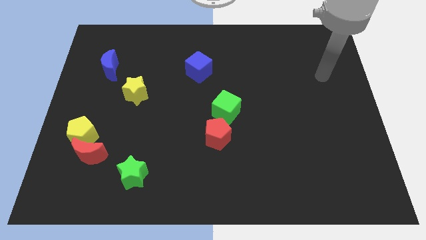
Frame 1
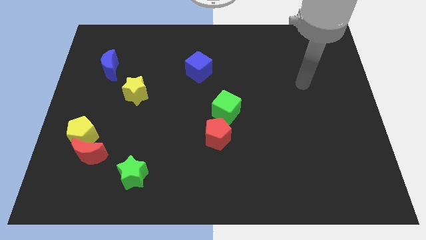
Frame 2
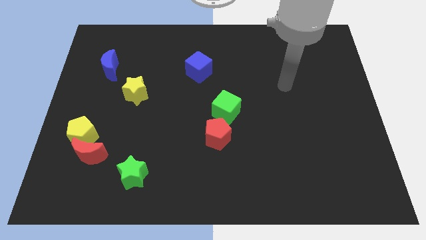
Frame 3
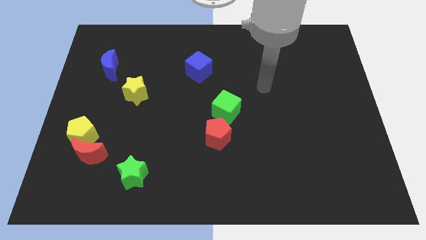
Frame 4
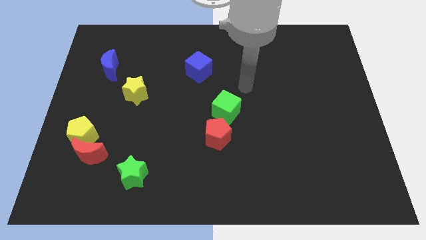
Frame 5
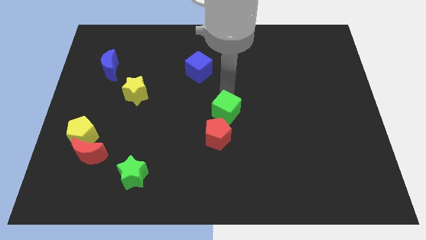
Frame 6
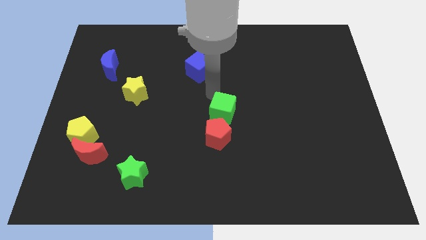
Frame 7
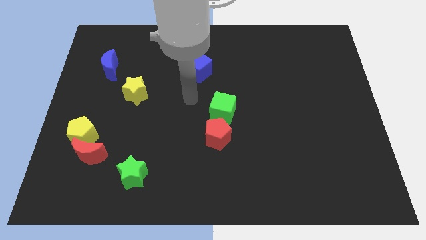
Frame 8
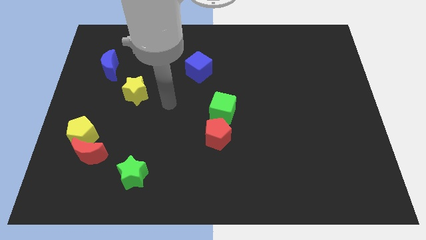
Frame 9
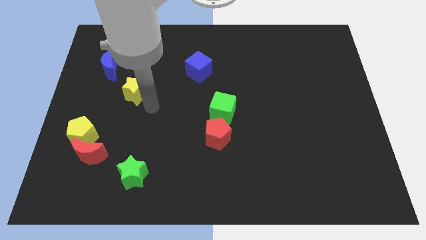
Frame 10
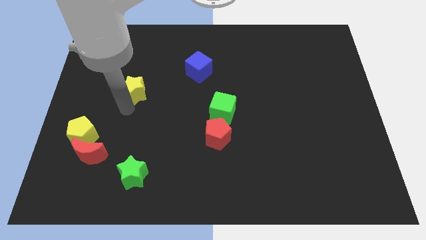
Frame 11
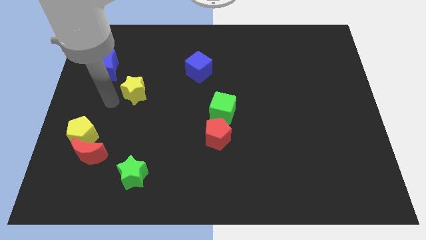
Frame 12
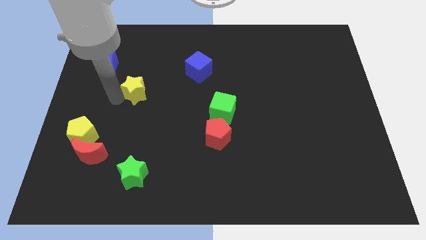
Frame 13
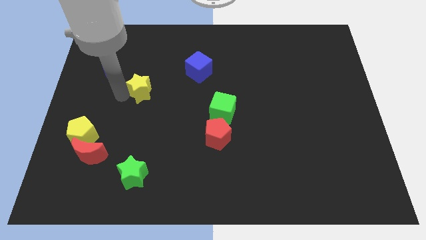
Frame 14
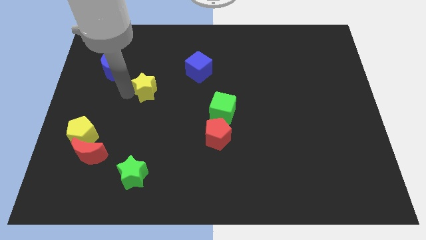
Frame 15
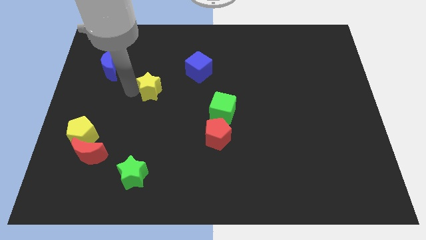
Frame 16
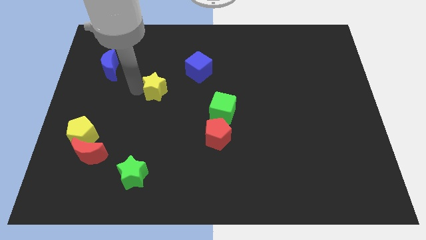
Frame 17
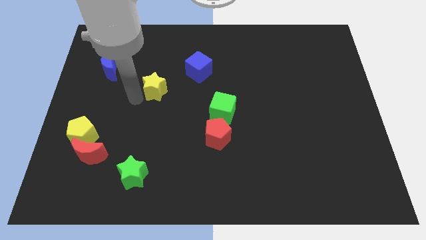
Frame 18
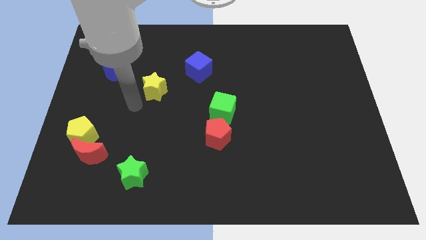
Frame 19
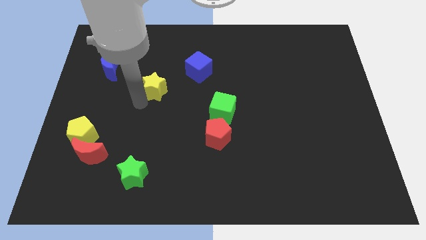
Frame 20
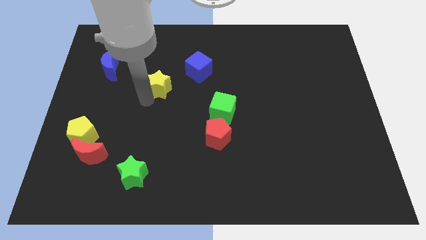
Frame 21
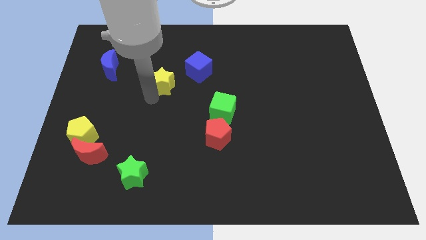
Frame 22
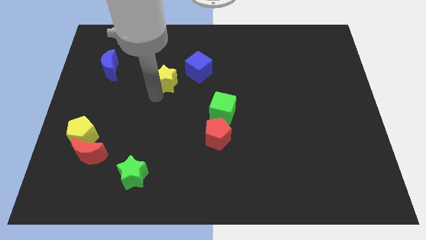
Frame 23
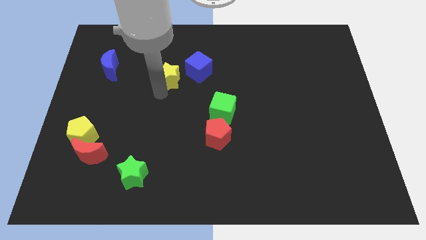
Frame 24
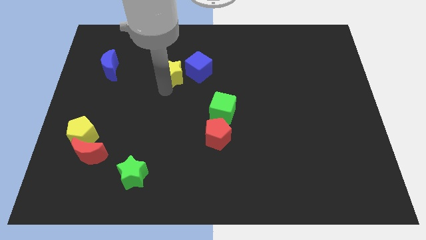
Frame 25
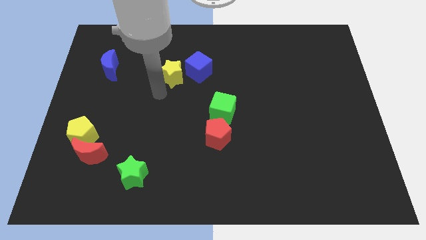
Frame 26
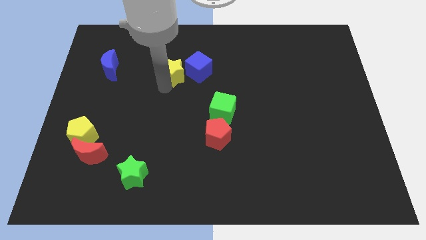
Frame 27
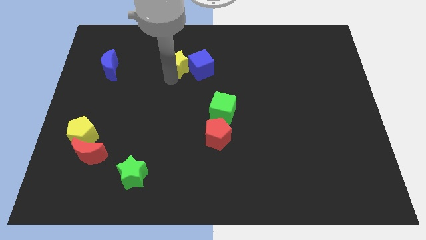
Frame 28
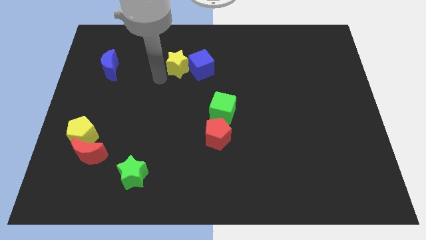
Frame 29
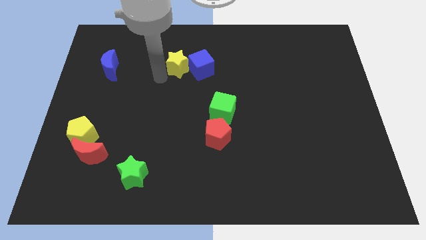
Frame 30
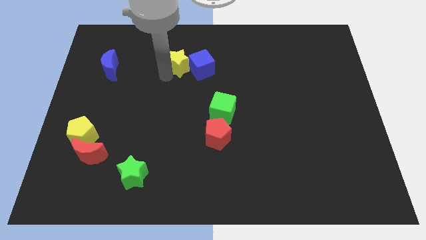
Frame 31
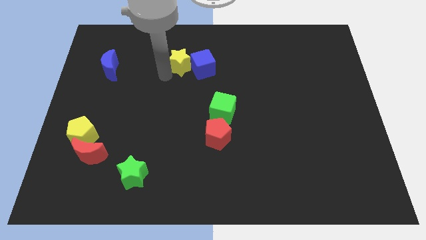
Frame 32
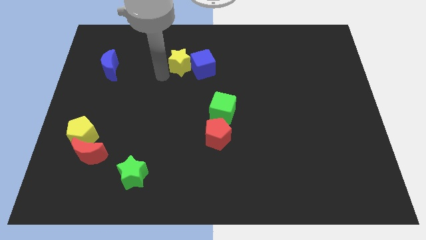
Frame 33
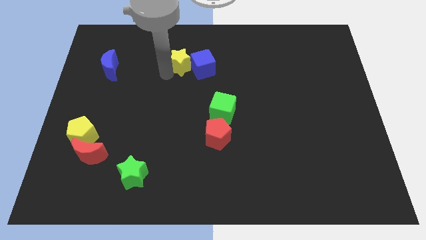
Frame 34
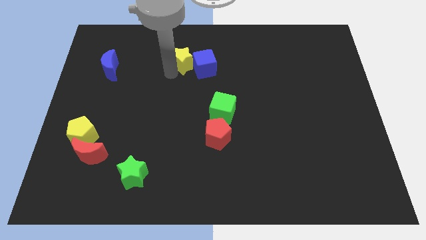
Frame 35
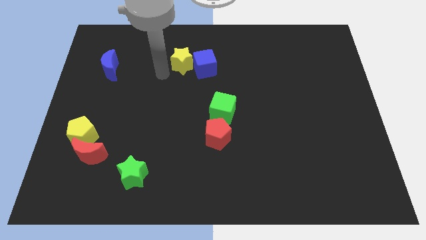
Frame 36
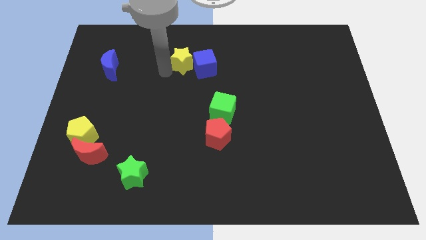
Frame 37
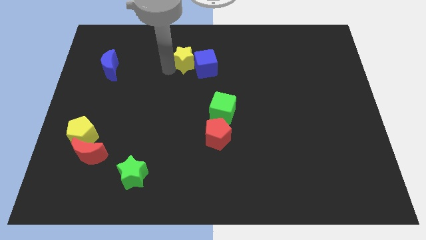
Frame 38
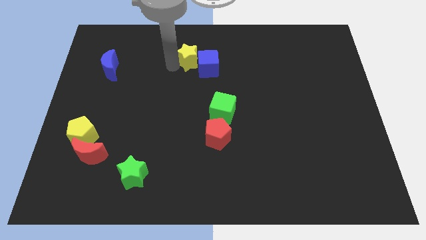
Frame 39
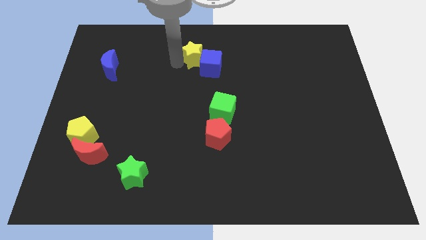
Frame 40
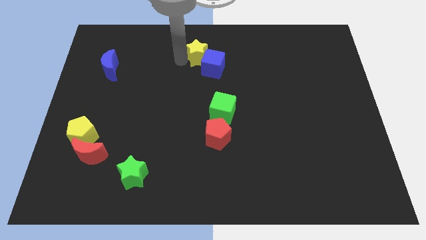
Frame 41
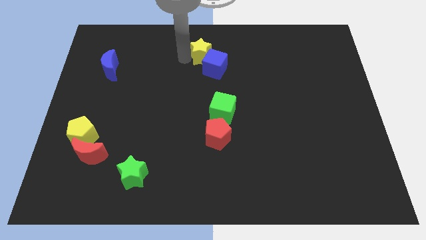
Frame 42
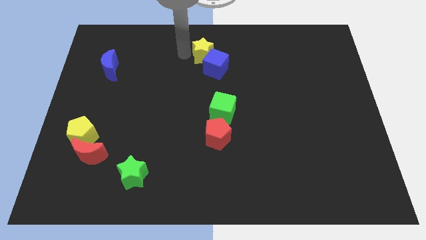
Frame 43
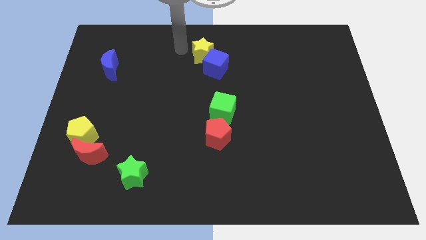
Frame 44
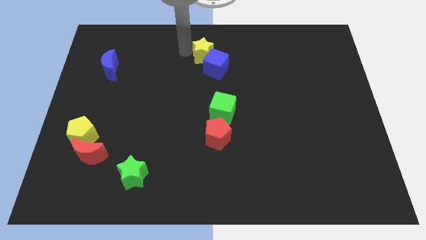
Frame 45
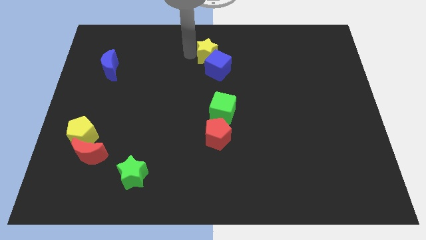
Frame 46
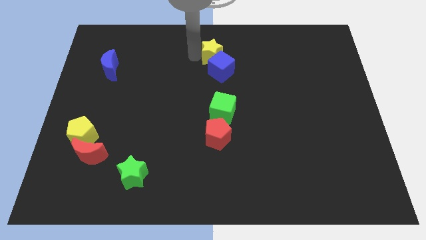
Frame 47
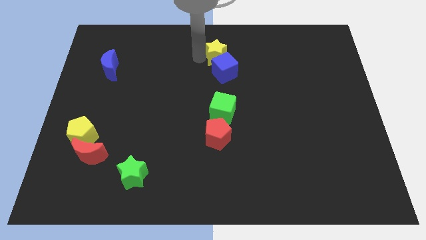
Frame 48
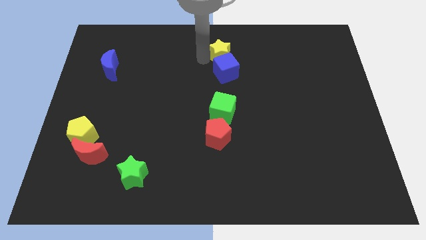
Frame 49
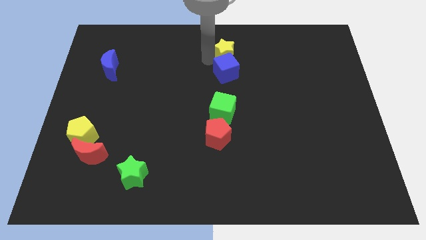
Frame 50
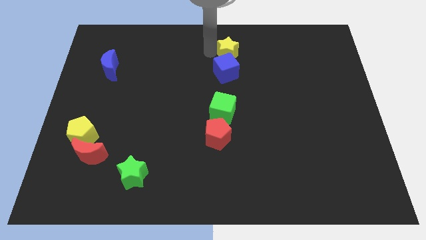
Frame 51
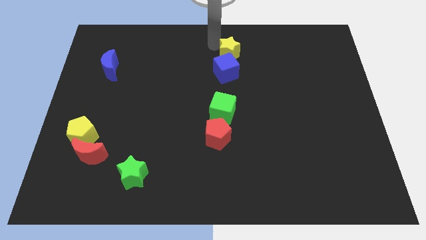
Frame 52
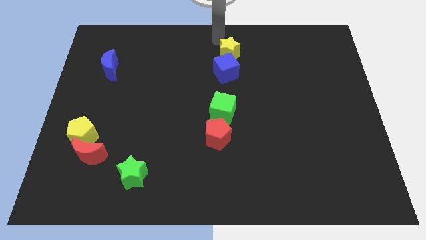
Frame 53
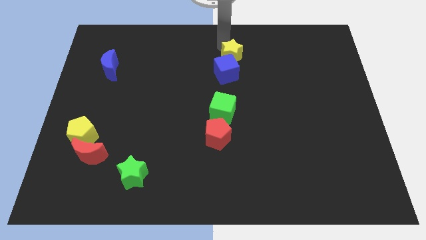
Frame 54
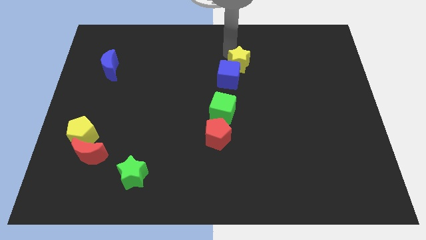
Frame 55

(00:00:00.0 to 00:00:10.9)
push the yellow star right

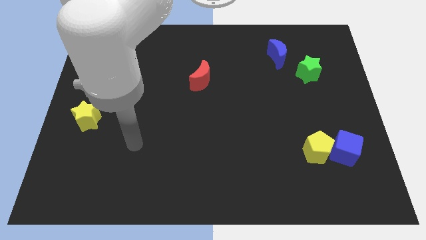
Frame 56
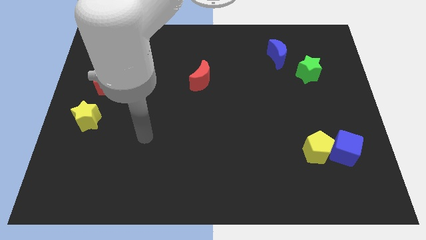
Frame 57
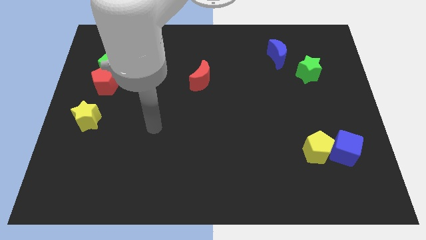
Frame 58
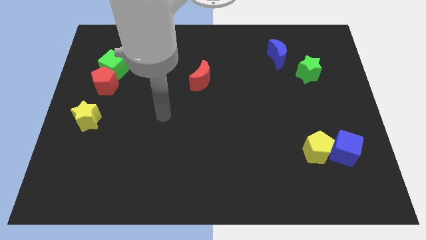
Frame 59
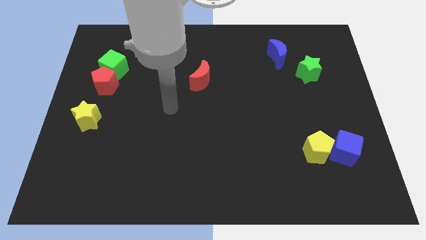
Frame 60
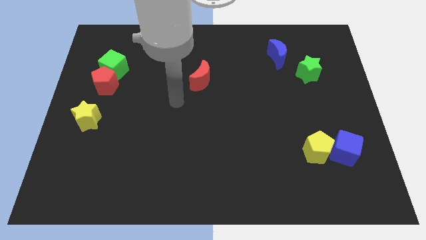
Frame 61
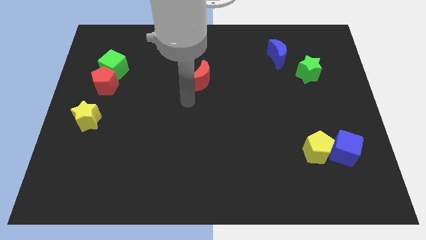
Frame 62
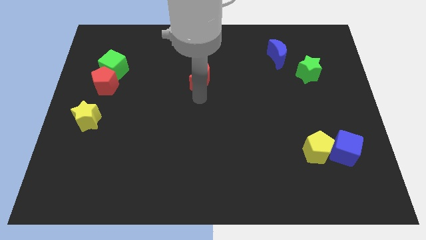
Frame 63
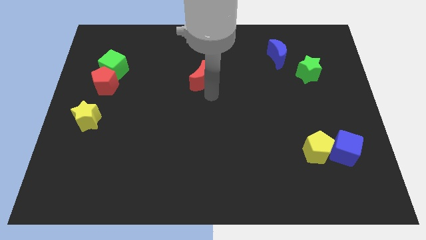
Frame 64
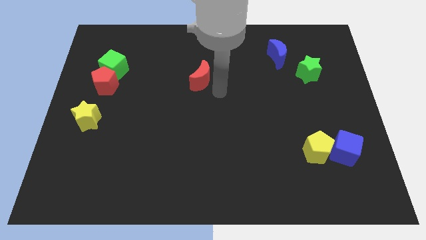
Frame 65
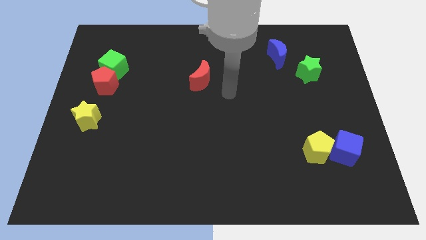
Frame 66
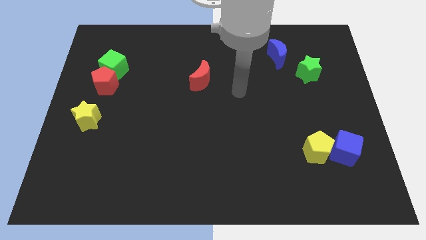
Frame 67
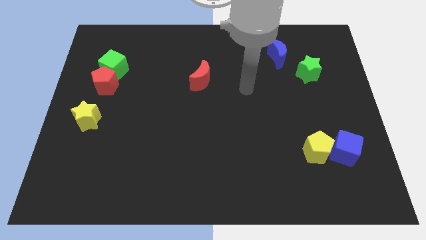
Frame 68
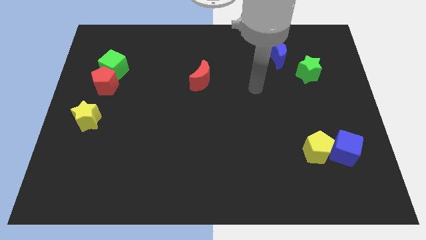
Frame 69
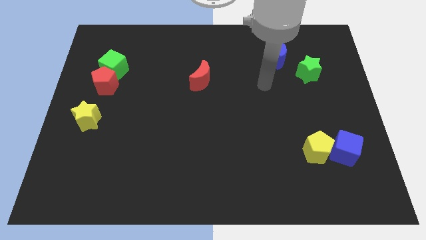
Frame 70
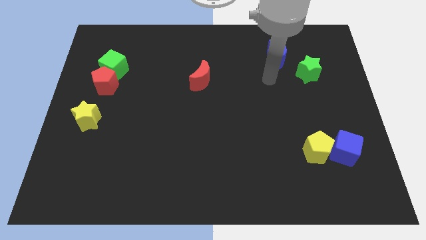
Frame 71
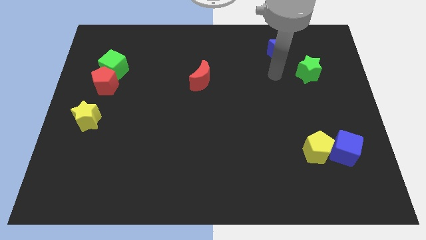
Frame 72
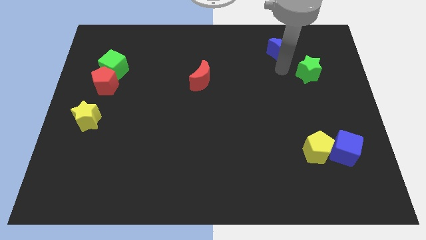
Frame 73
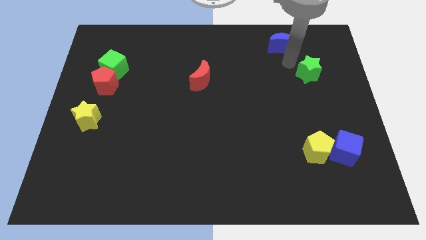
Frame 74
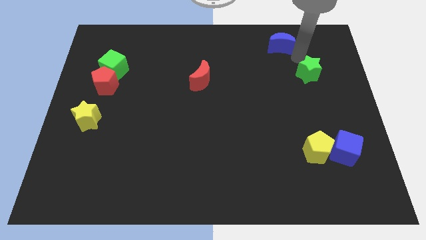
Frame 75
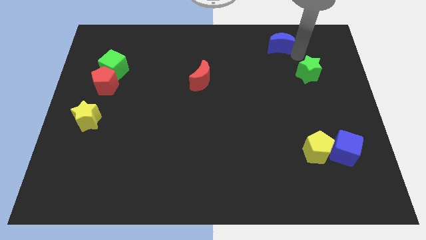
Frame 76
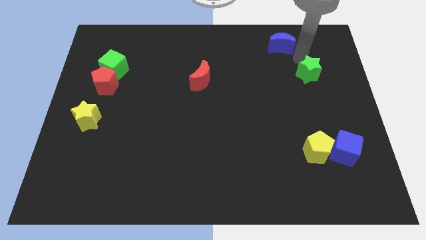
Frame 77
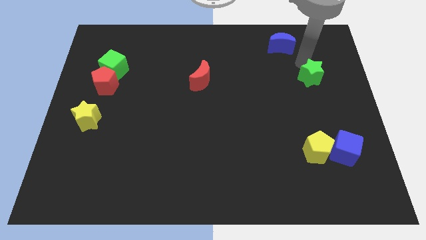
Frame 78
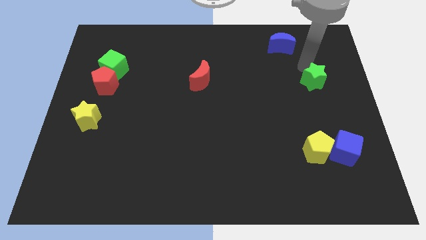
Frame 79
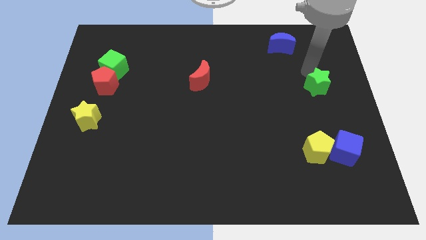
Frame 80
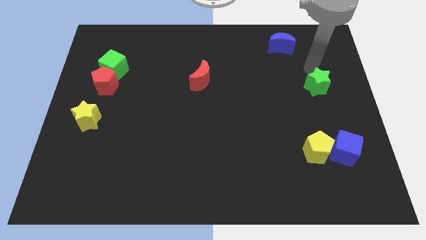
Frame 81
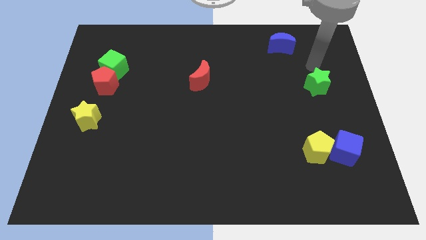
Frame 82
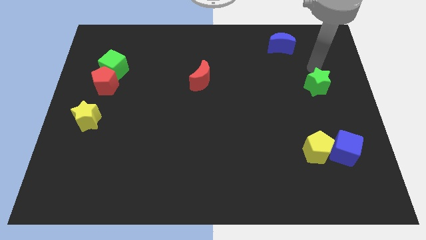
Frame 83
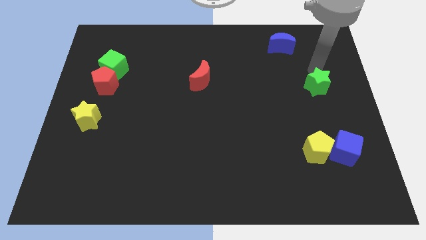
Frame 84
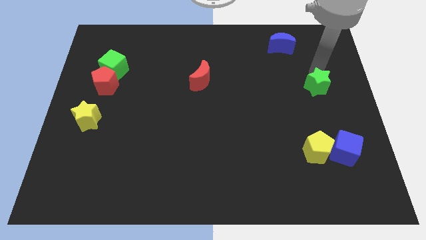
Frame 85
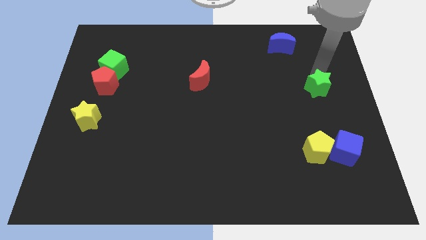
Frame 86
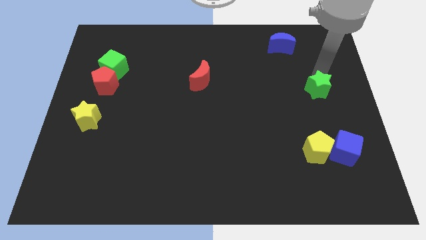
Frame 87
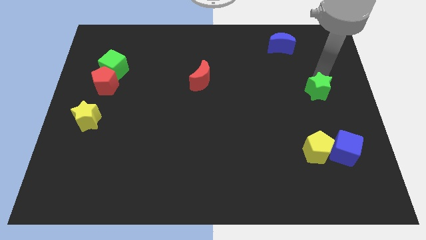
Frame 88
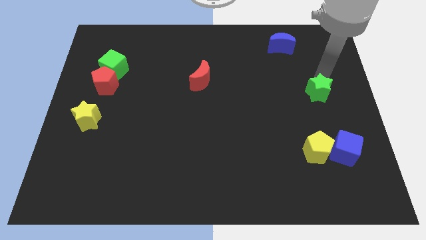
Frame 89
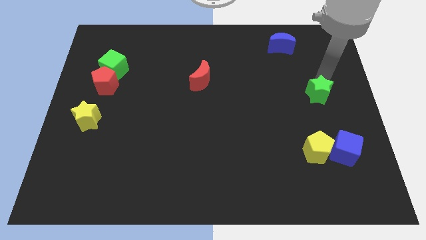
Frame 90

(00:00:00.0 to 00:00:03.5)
push the green star downwards a bit
